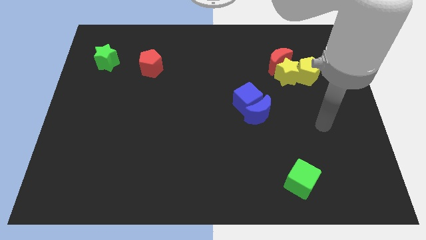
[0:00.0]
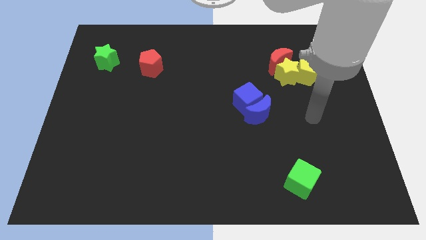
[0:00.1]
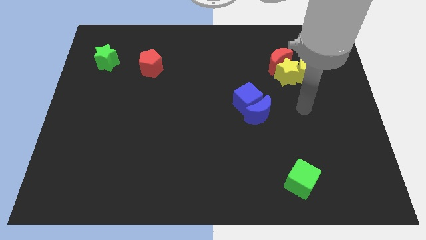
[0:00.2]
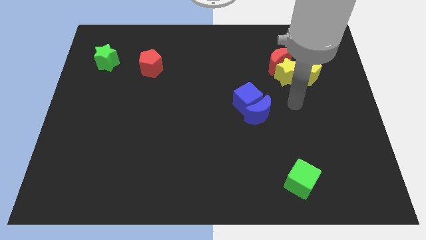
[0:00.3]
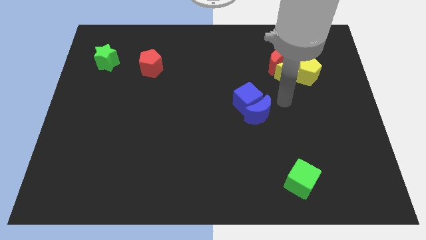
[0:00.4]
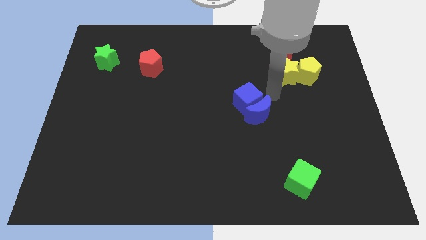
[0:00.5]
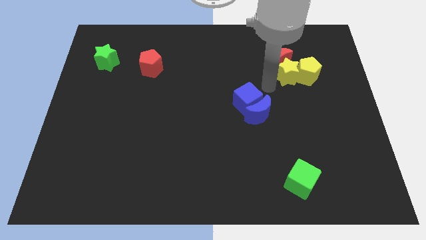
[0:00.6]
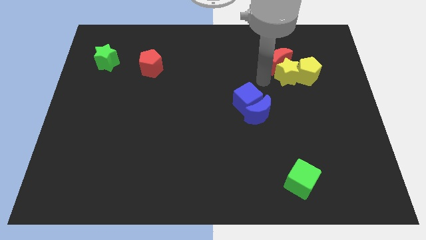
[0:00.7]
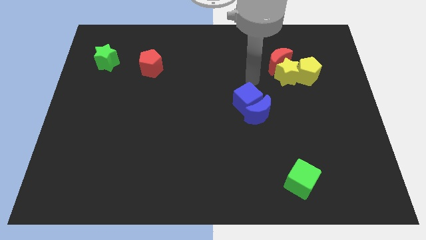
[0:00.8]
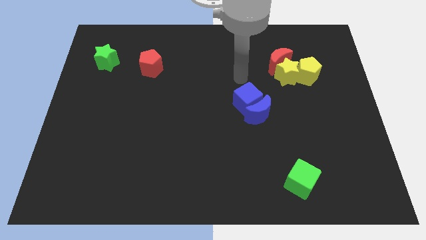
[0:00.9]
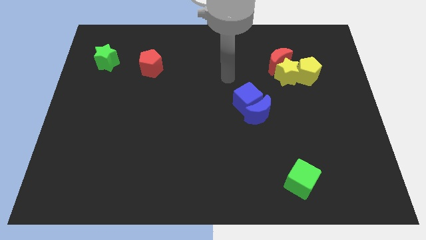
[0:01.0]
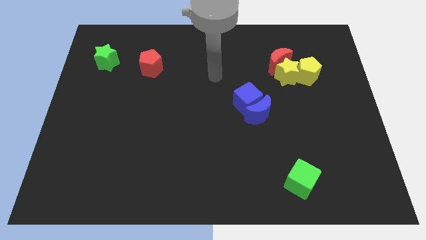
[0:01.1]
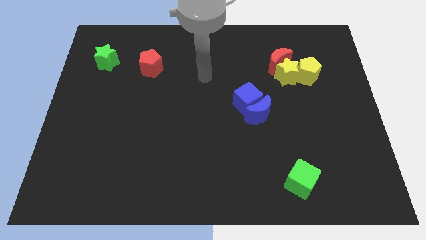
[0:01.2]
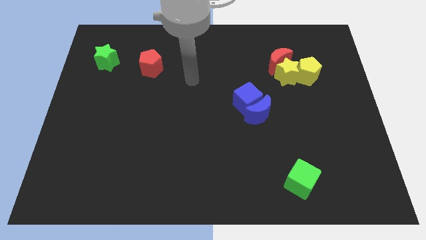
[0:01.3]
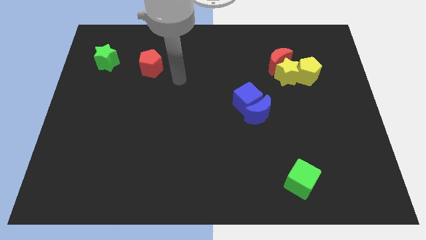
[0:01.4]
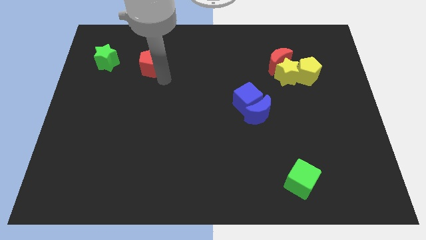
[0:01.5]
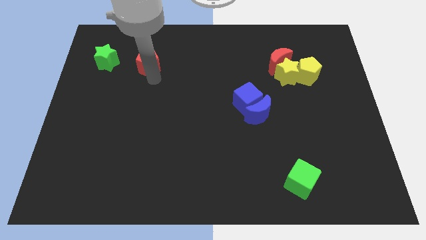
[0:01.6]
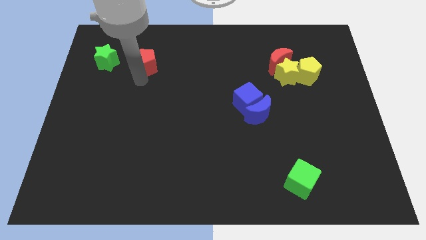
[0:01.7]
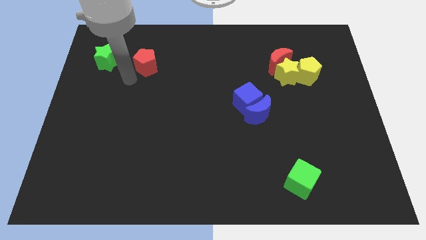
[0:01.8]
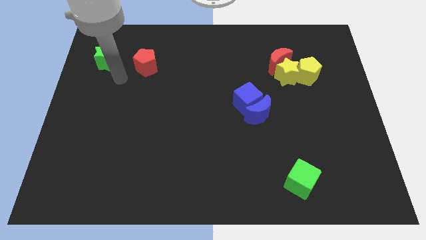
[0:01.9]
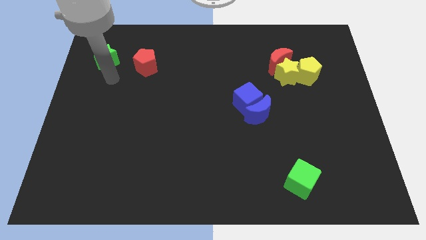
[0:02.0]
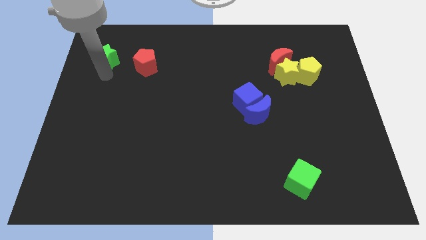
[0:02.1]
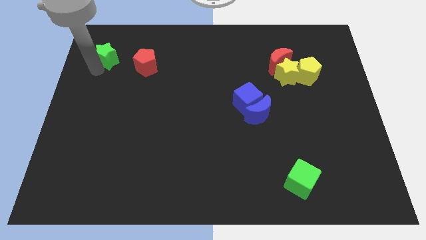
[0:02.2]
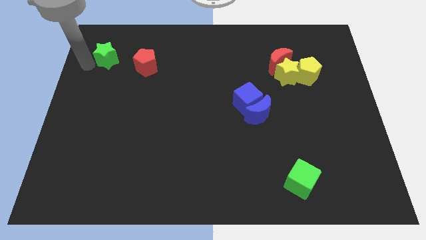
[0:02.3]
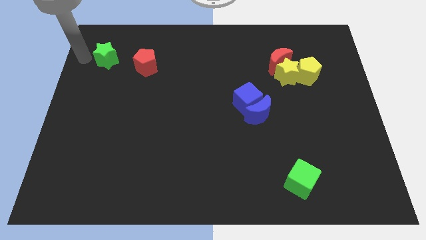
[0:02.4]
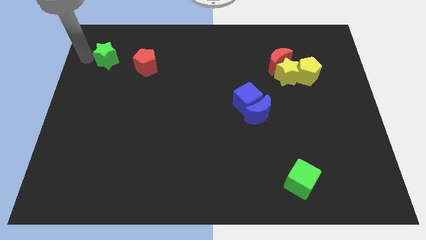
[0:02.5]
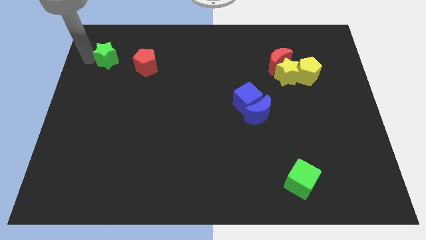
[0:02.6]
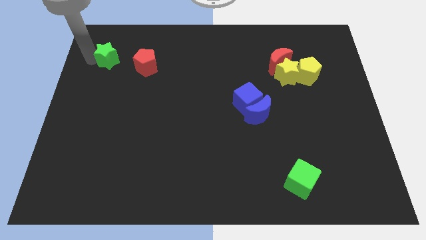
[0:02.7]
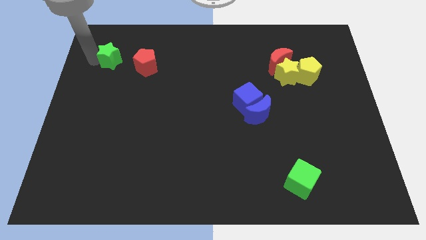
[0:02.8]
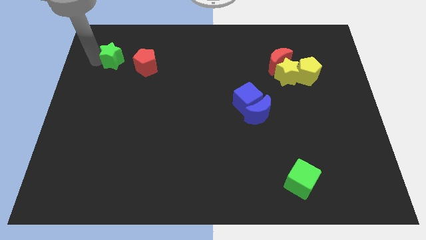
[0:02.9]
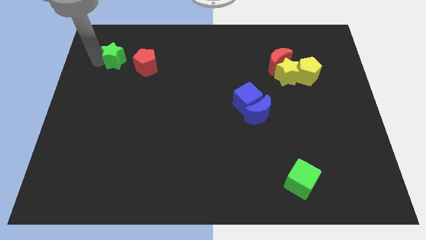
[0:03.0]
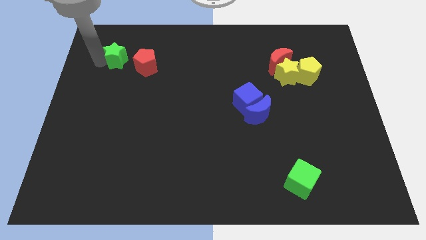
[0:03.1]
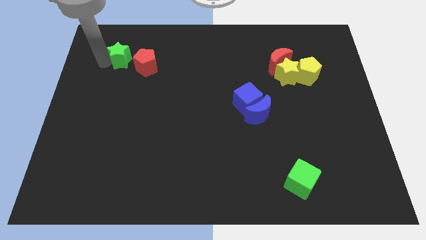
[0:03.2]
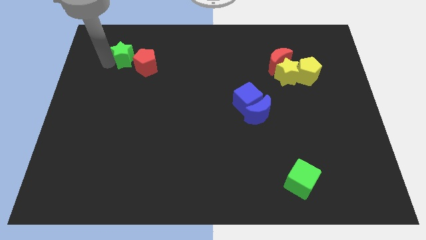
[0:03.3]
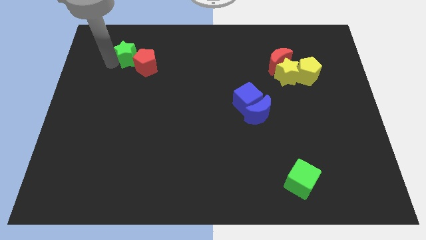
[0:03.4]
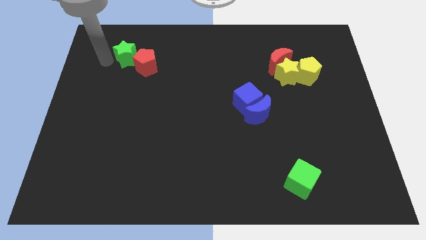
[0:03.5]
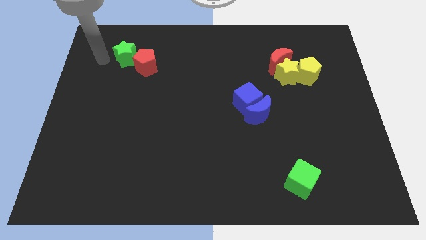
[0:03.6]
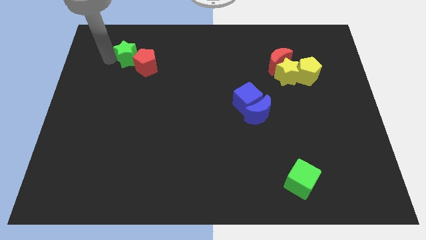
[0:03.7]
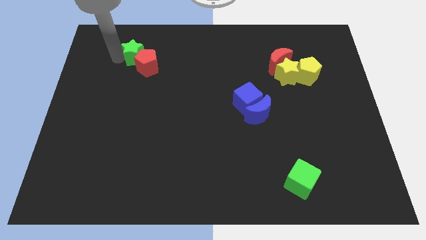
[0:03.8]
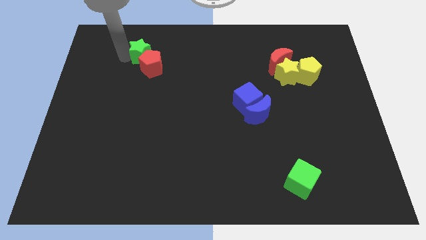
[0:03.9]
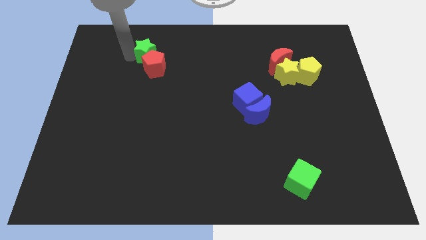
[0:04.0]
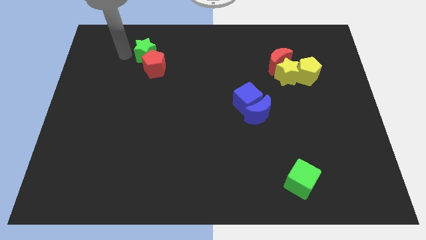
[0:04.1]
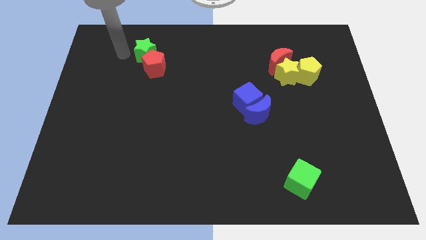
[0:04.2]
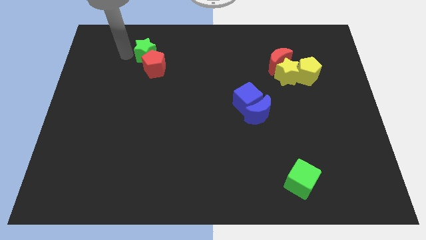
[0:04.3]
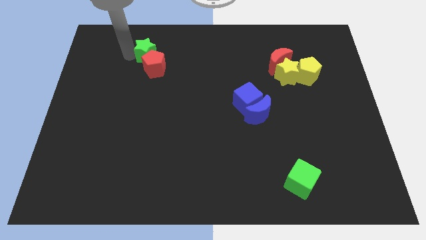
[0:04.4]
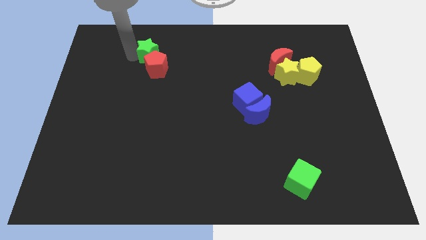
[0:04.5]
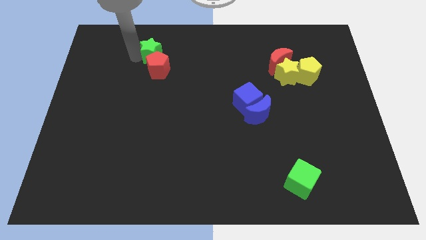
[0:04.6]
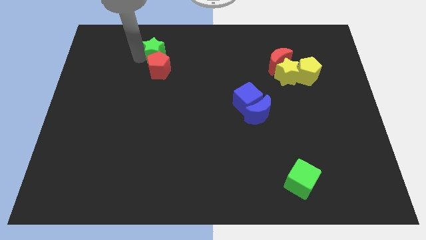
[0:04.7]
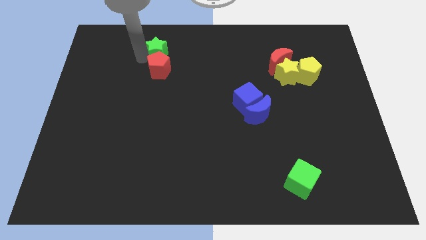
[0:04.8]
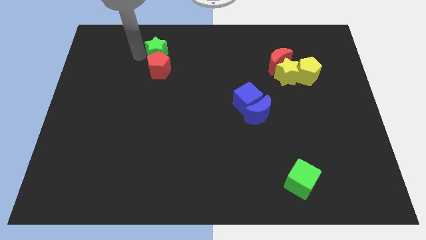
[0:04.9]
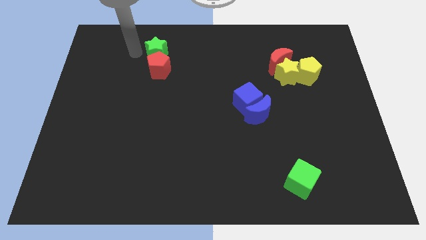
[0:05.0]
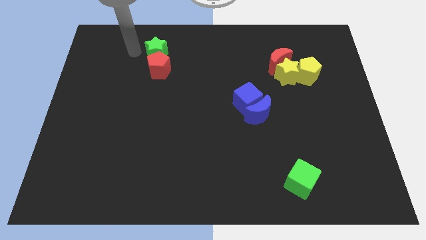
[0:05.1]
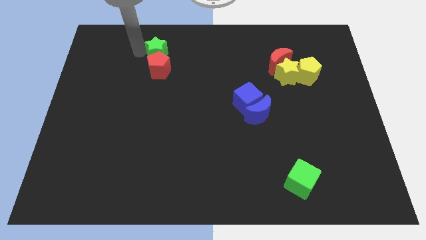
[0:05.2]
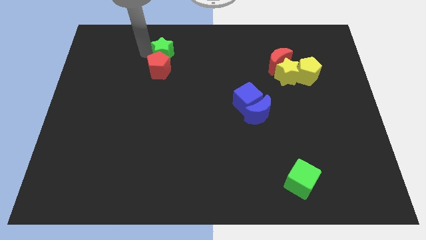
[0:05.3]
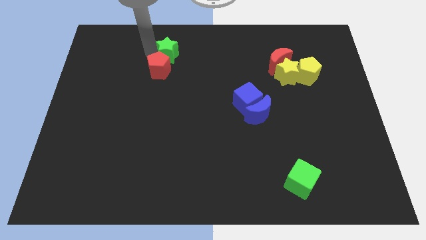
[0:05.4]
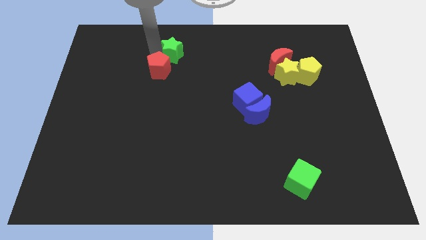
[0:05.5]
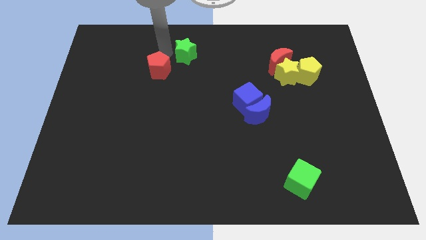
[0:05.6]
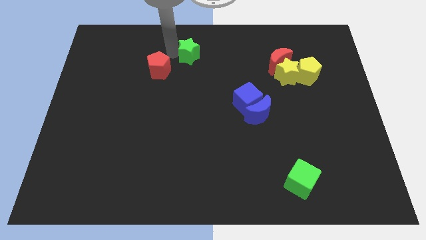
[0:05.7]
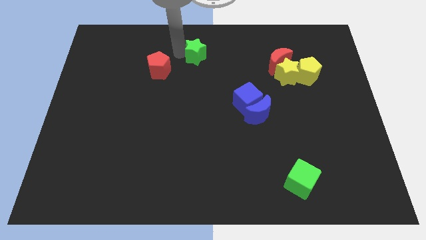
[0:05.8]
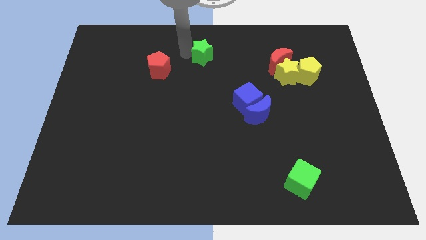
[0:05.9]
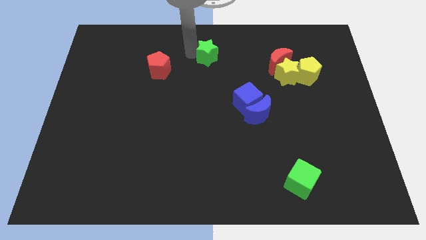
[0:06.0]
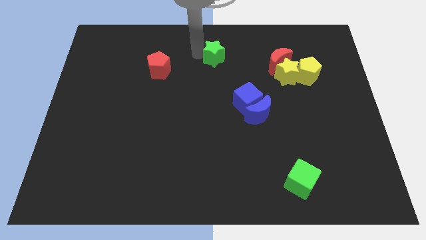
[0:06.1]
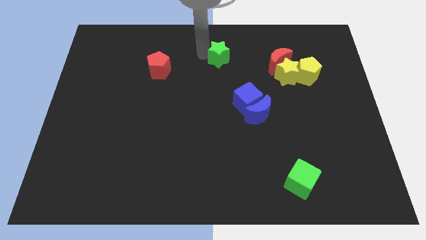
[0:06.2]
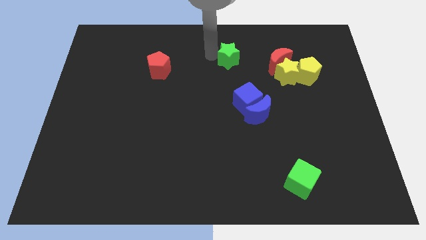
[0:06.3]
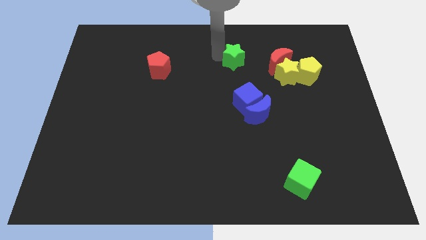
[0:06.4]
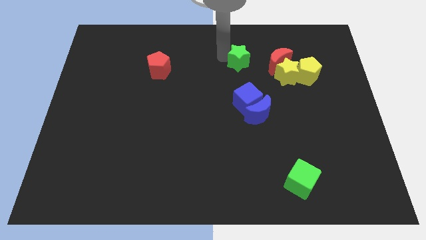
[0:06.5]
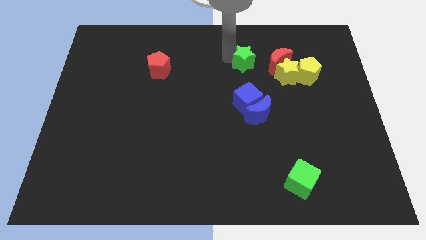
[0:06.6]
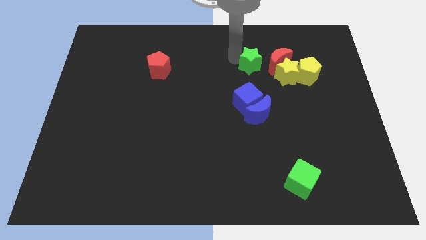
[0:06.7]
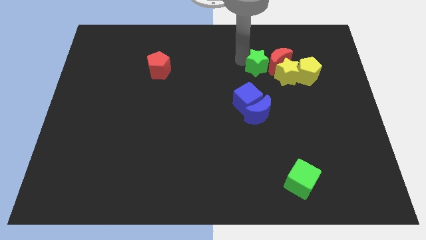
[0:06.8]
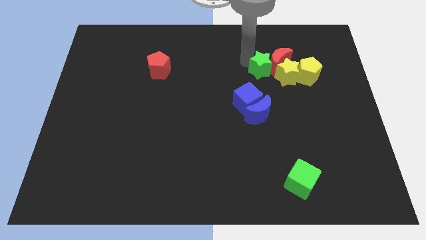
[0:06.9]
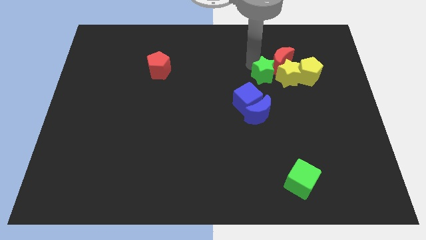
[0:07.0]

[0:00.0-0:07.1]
put the green star close to the yellow star

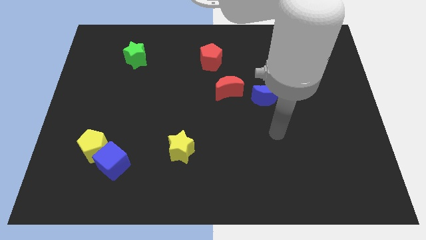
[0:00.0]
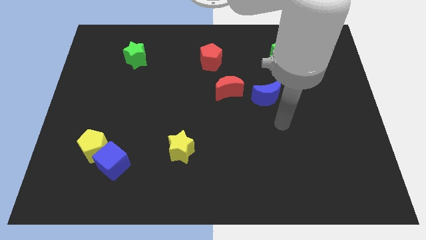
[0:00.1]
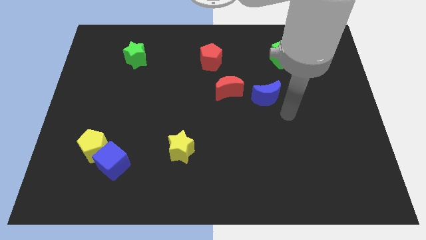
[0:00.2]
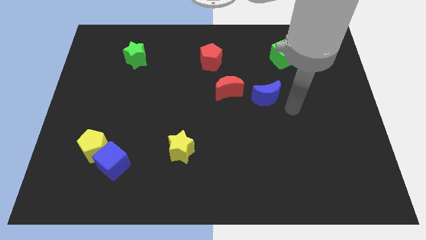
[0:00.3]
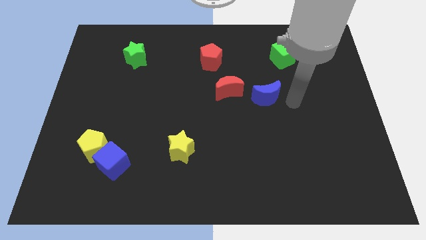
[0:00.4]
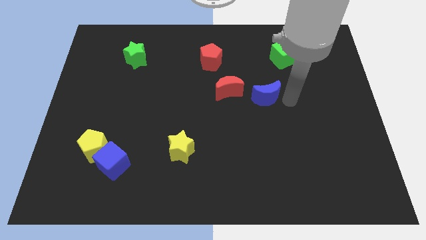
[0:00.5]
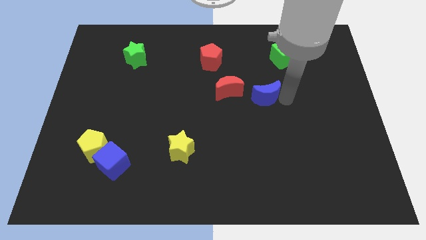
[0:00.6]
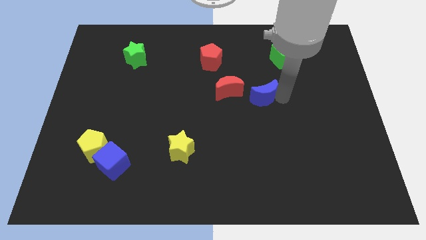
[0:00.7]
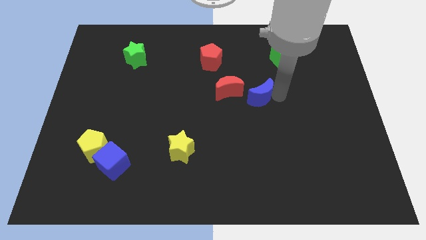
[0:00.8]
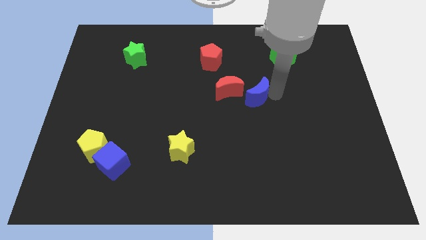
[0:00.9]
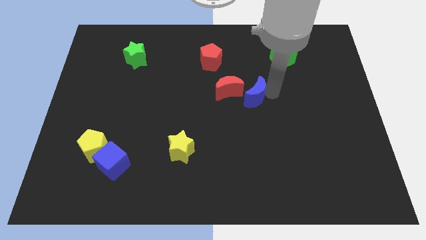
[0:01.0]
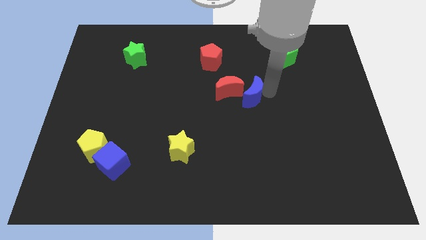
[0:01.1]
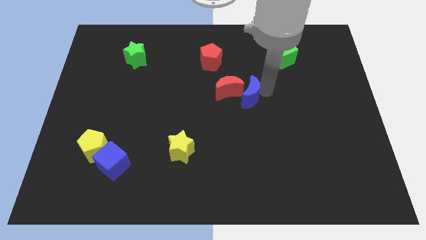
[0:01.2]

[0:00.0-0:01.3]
slide the blue moon towards the red moon
